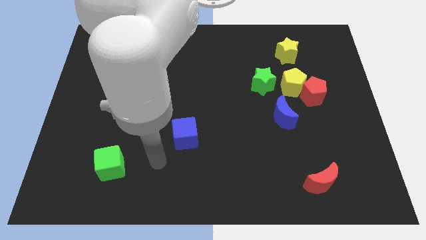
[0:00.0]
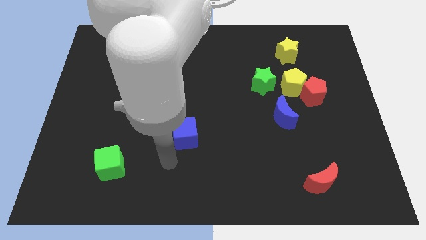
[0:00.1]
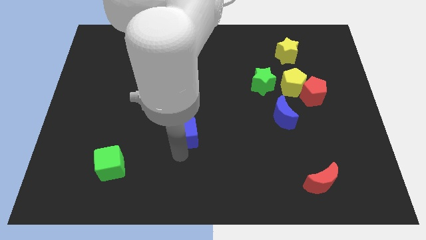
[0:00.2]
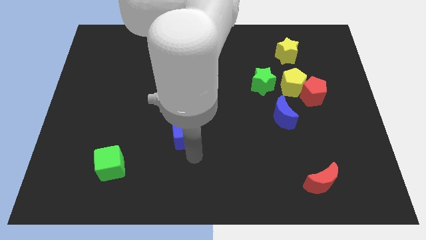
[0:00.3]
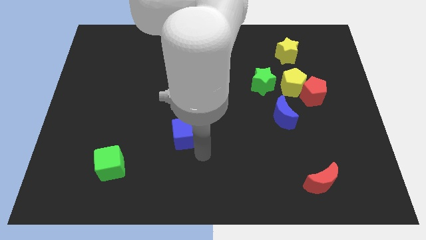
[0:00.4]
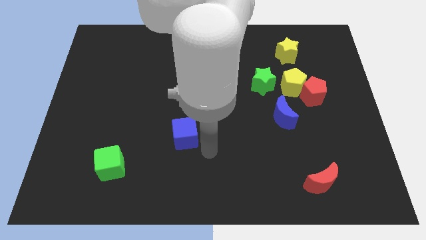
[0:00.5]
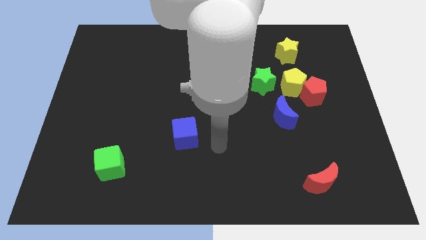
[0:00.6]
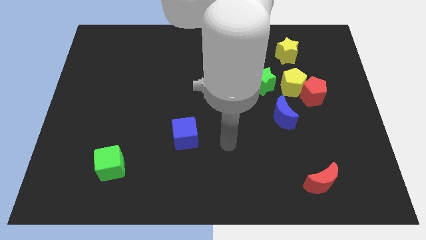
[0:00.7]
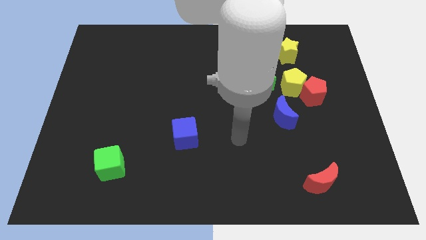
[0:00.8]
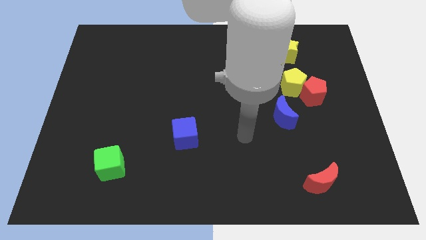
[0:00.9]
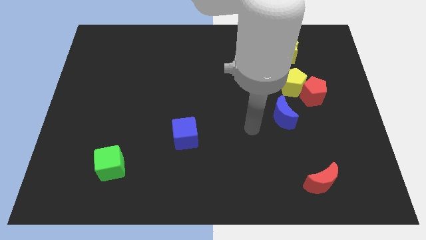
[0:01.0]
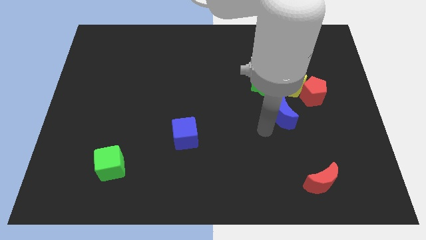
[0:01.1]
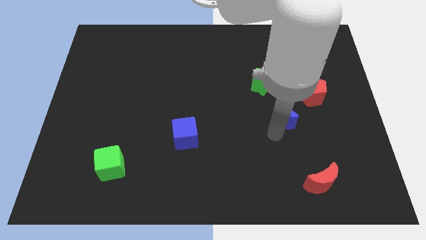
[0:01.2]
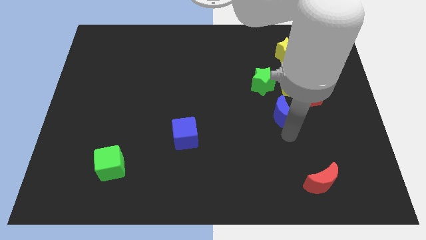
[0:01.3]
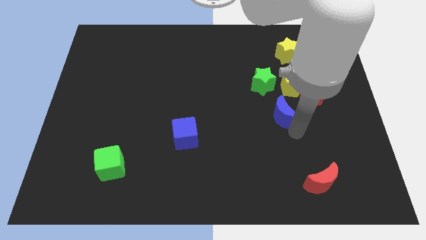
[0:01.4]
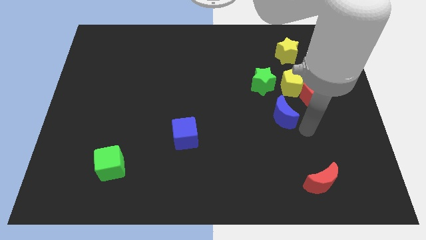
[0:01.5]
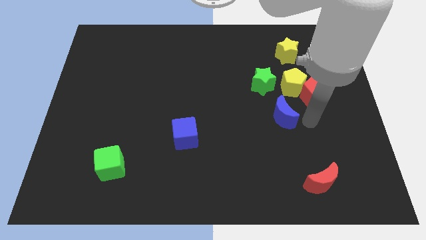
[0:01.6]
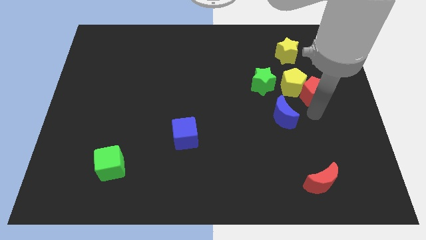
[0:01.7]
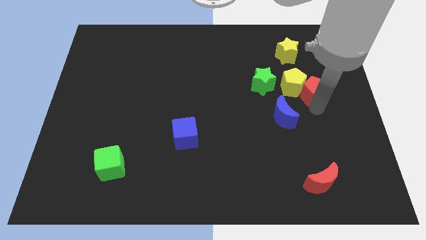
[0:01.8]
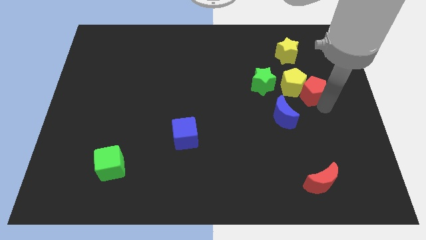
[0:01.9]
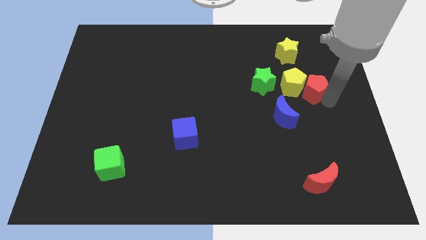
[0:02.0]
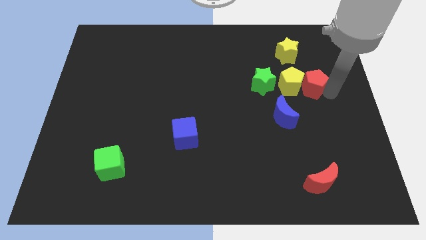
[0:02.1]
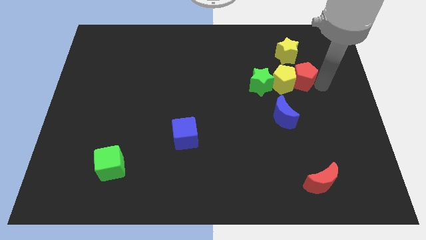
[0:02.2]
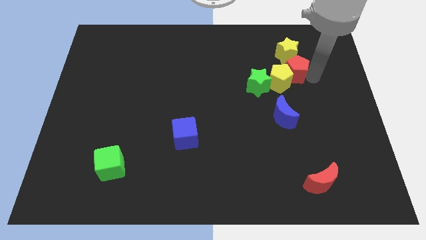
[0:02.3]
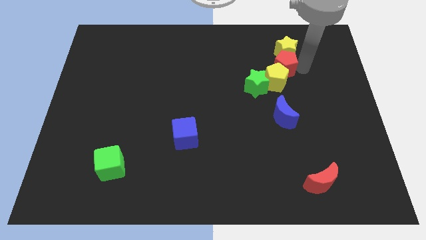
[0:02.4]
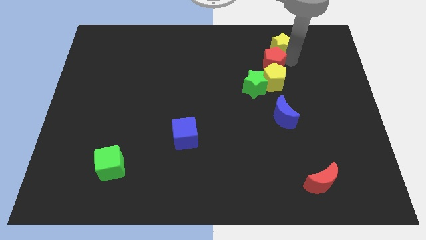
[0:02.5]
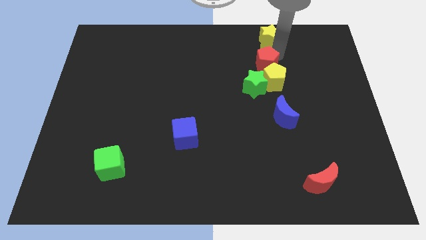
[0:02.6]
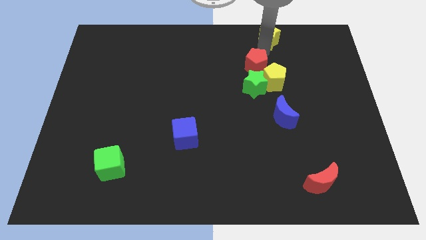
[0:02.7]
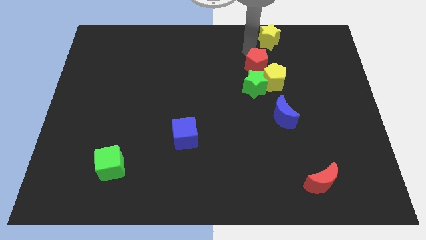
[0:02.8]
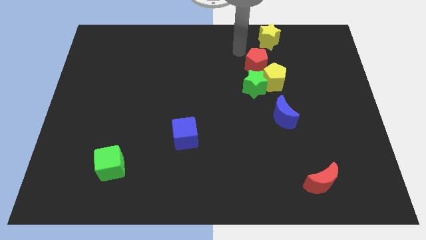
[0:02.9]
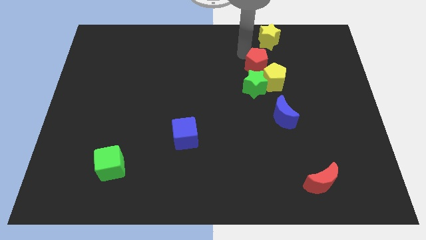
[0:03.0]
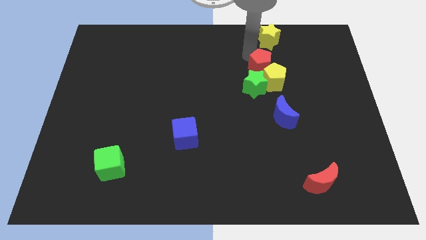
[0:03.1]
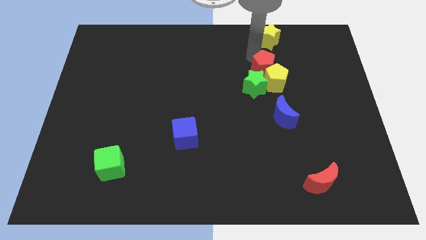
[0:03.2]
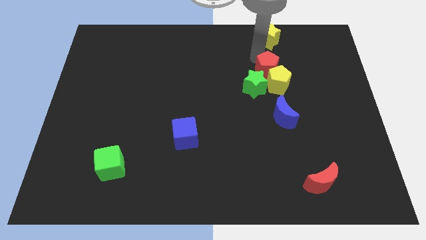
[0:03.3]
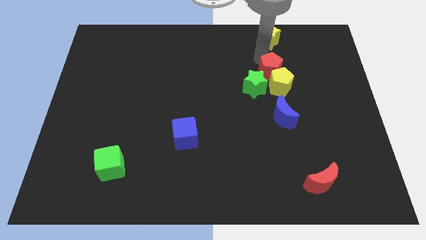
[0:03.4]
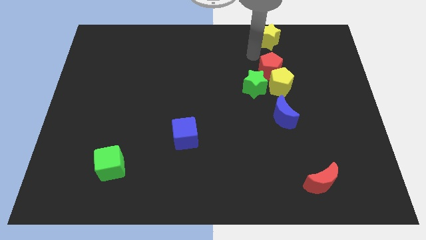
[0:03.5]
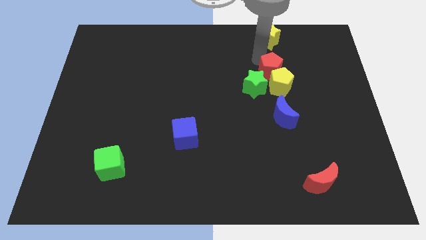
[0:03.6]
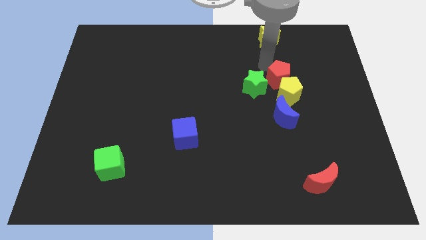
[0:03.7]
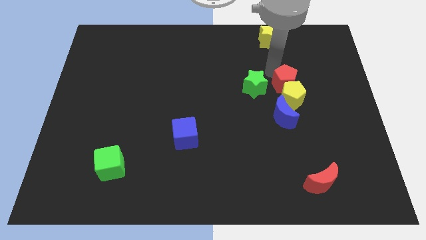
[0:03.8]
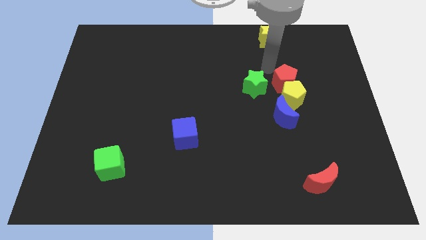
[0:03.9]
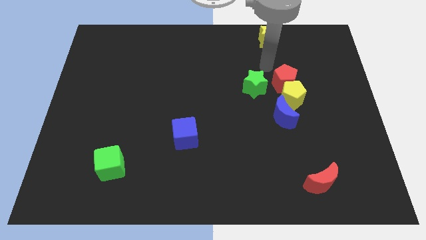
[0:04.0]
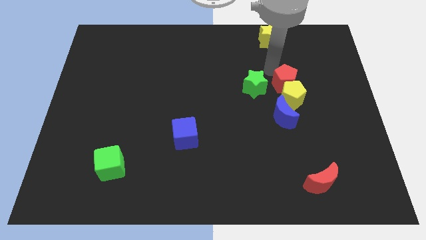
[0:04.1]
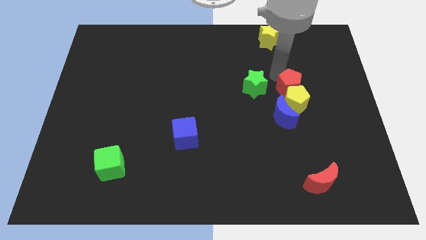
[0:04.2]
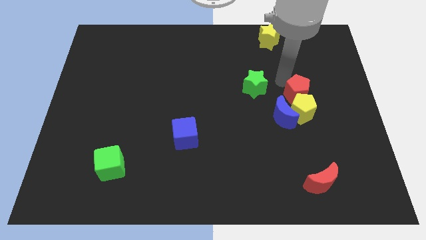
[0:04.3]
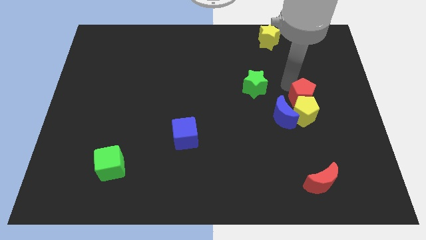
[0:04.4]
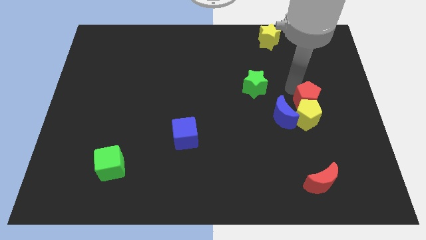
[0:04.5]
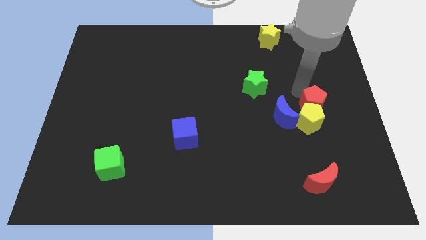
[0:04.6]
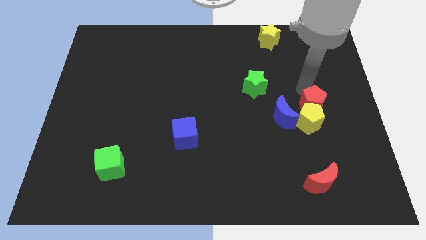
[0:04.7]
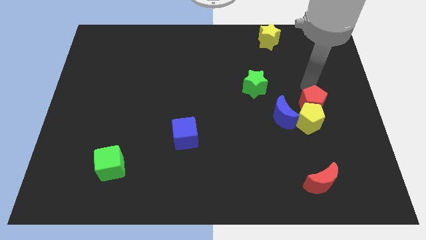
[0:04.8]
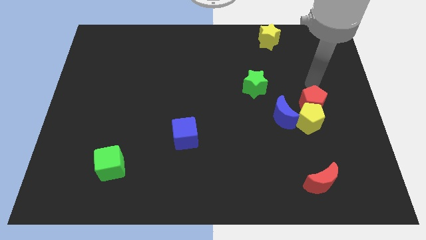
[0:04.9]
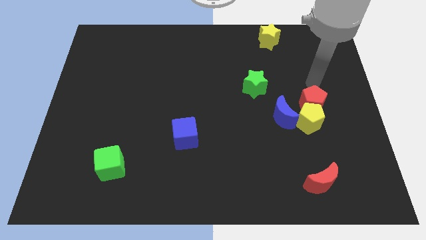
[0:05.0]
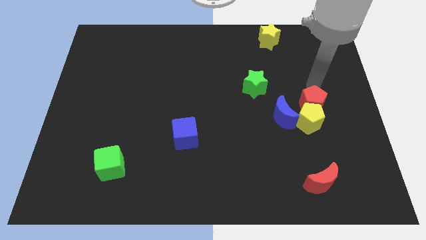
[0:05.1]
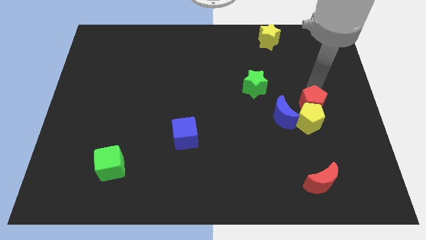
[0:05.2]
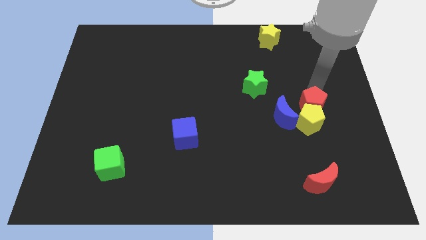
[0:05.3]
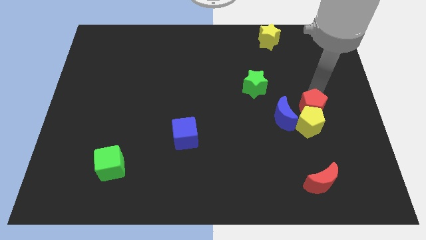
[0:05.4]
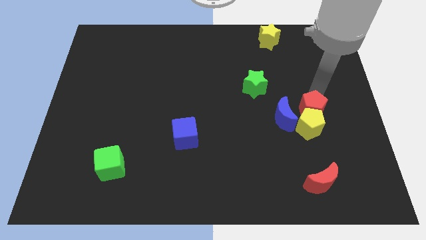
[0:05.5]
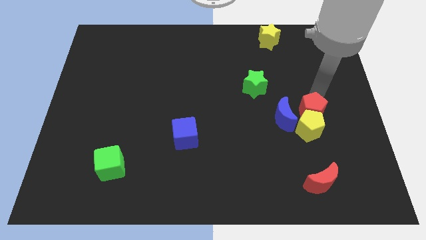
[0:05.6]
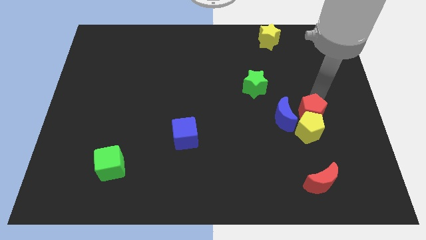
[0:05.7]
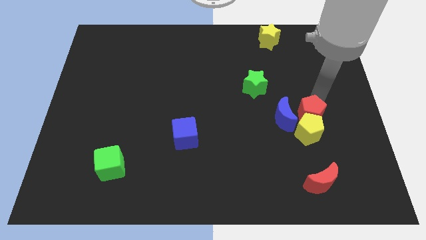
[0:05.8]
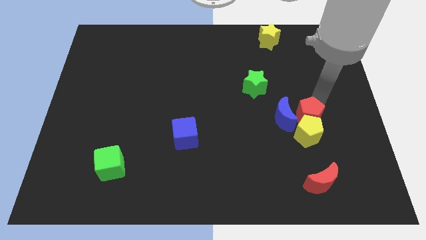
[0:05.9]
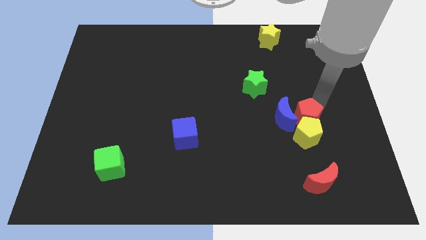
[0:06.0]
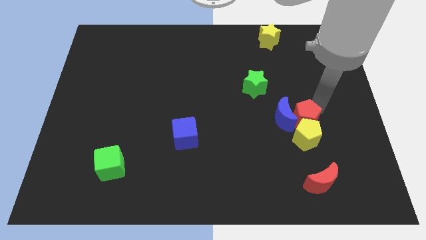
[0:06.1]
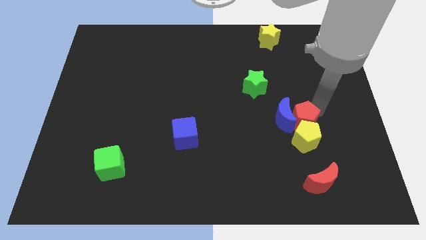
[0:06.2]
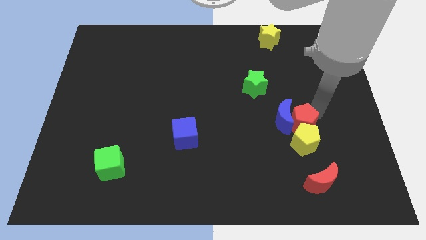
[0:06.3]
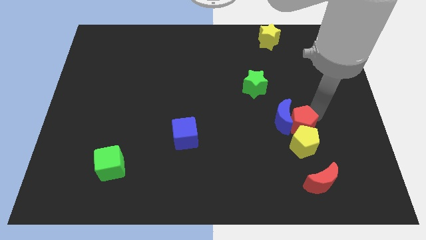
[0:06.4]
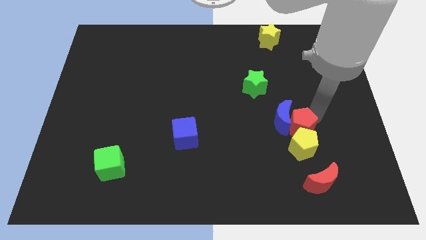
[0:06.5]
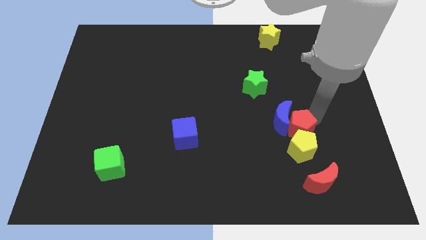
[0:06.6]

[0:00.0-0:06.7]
put the red pentagon to the bottom side of the blue moon
